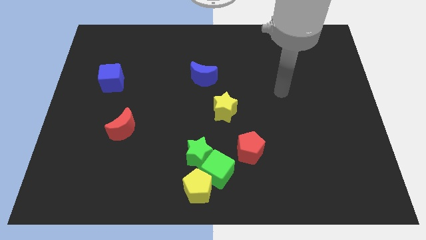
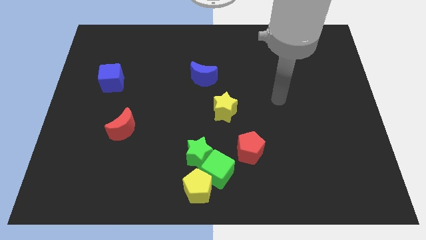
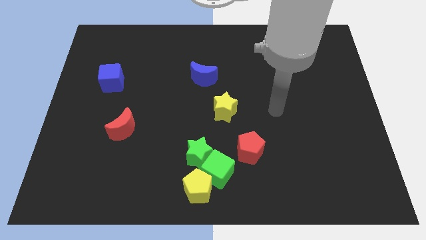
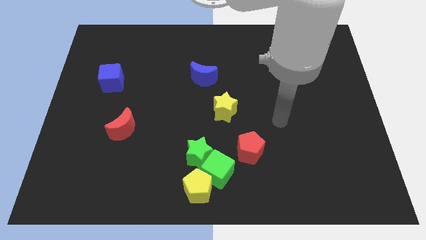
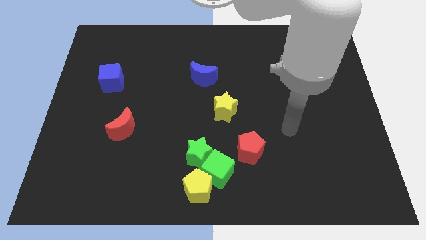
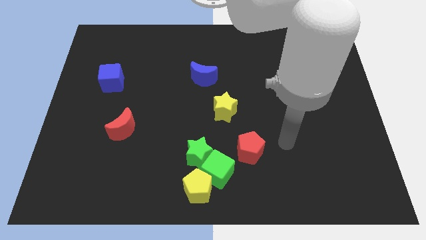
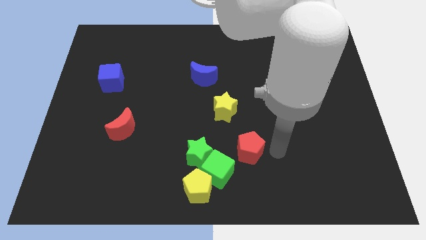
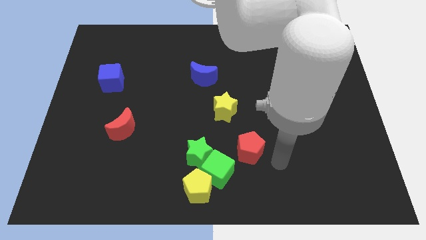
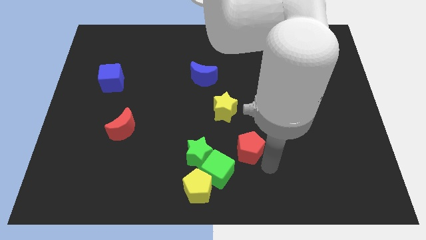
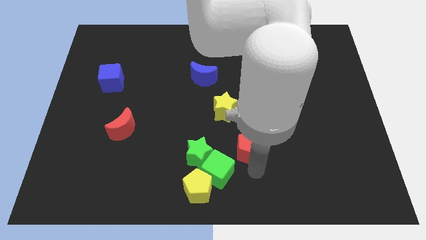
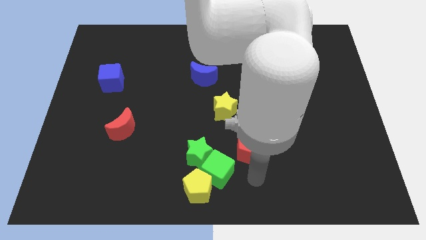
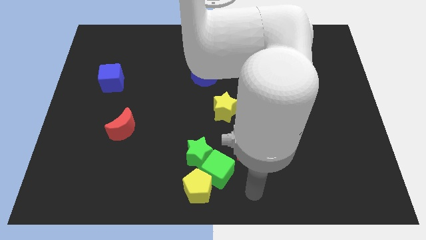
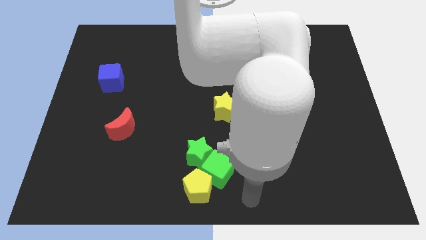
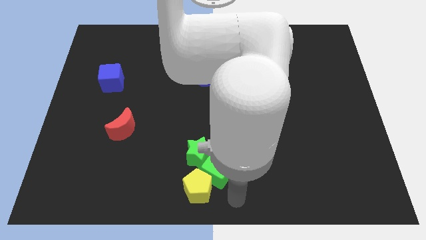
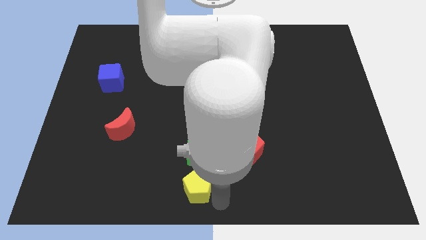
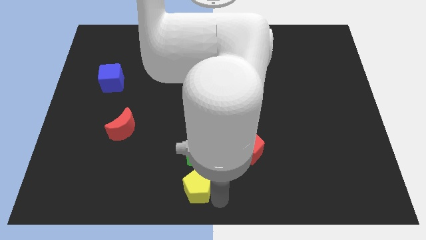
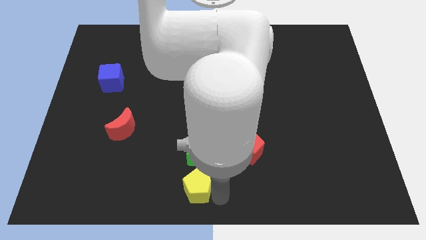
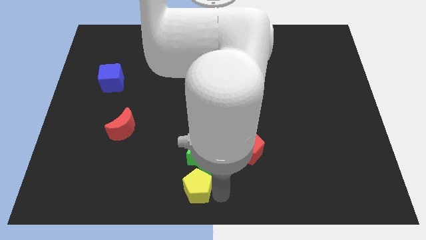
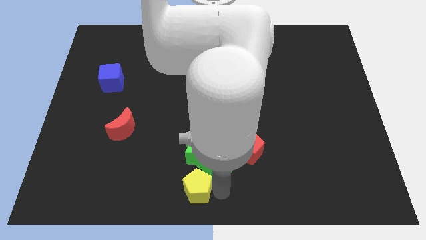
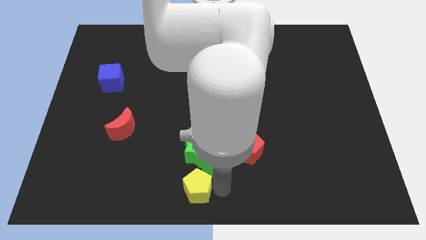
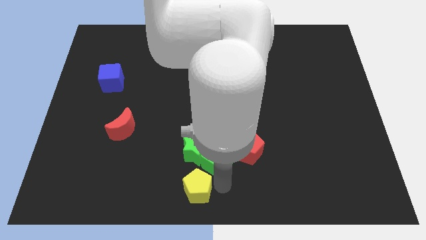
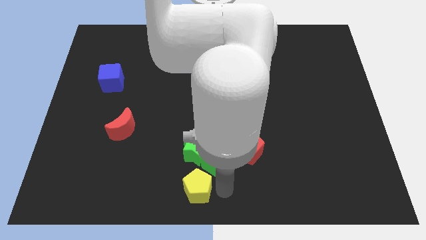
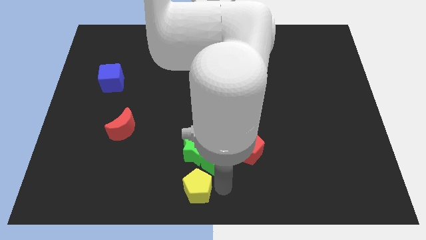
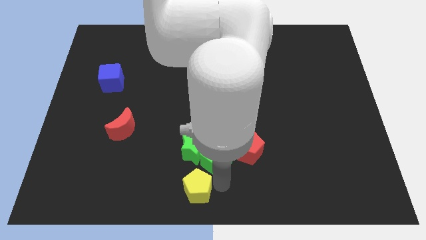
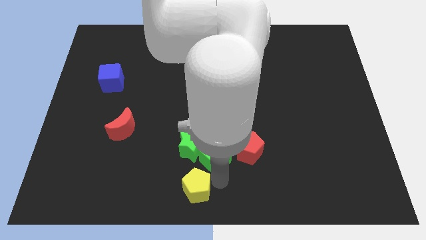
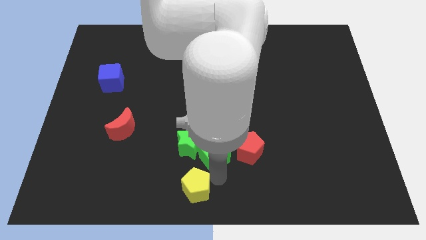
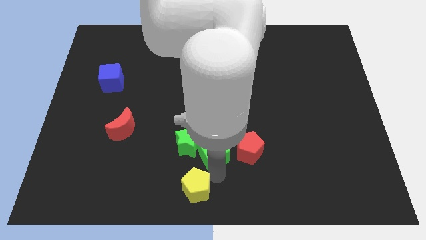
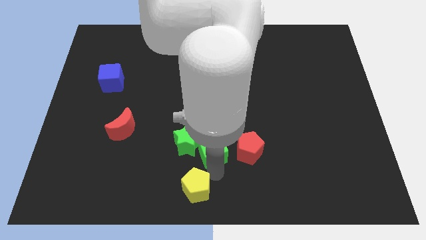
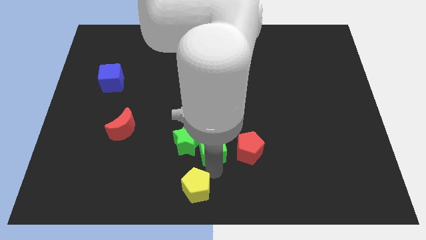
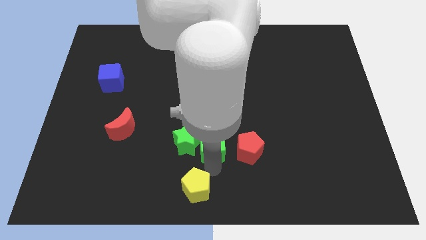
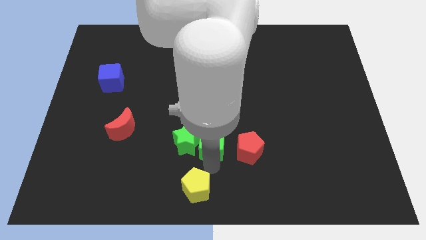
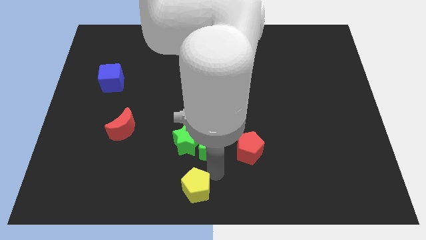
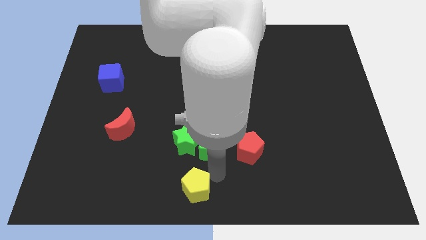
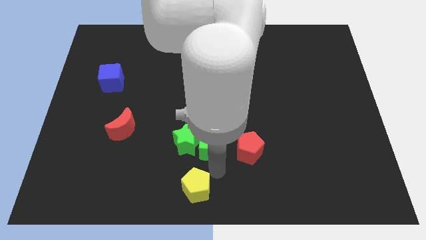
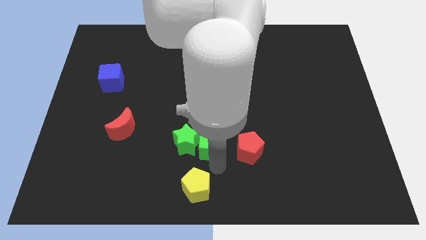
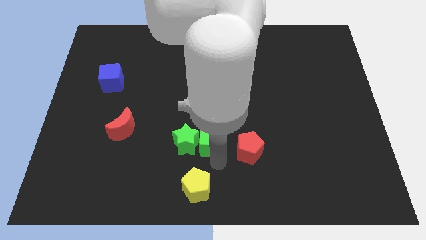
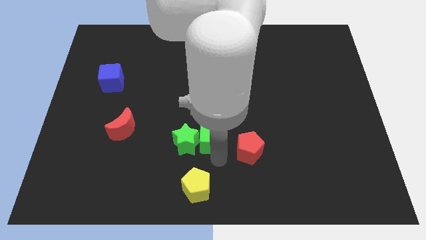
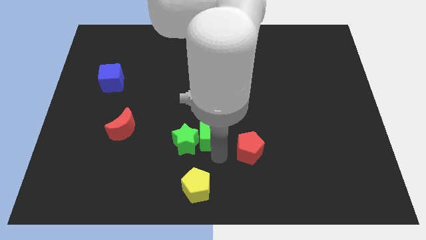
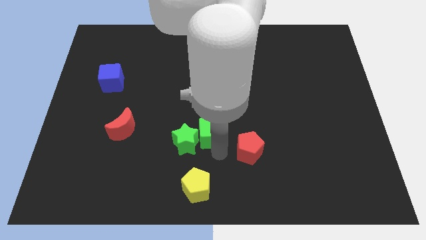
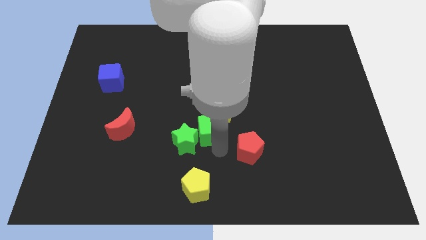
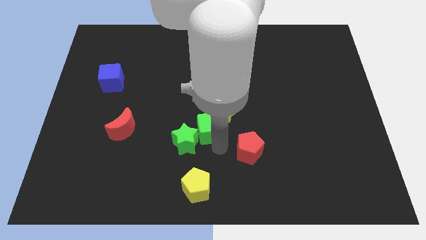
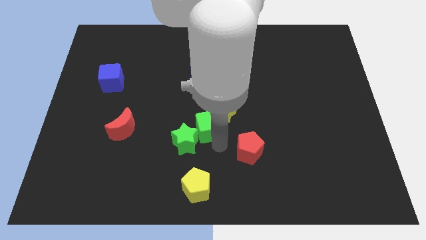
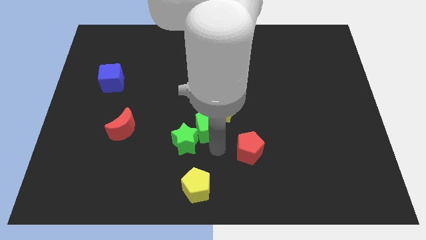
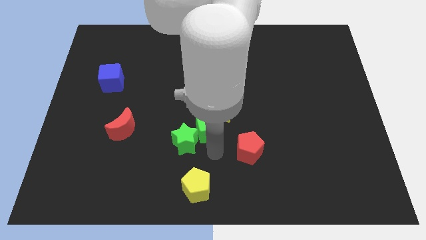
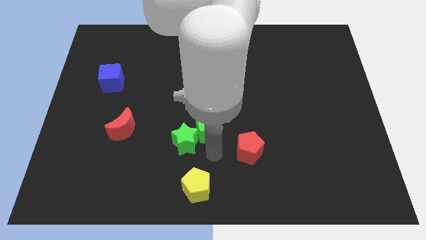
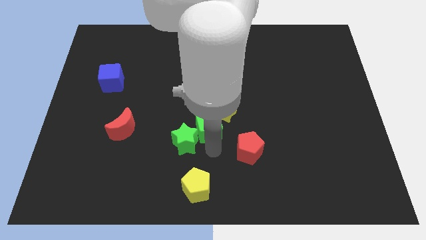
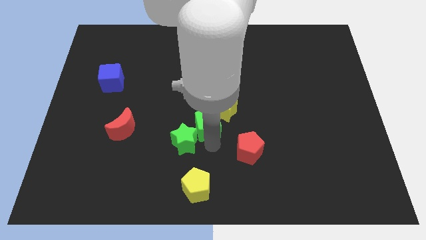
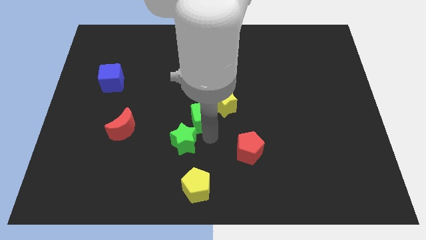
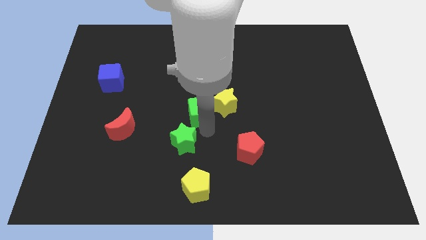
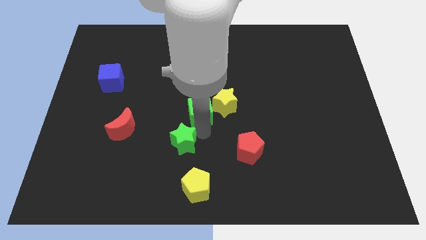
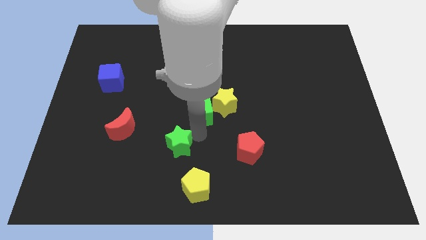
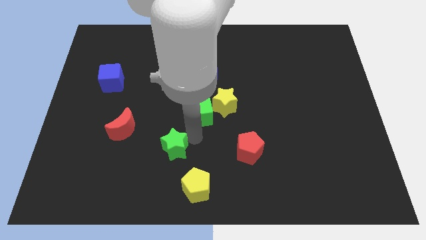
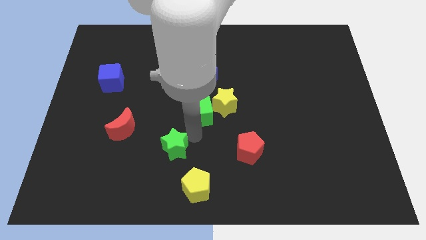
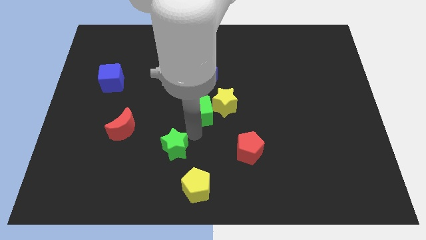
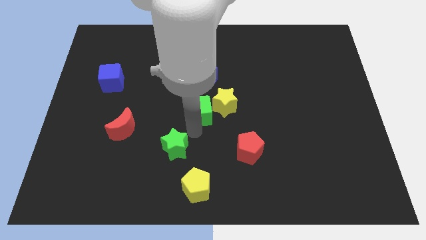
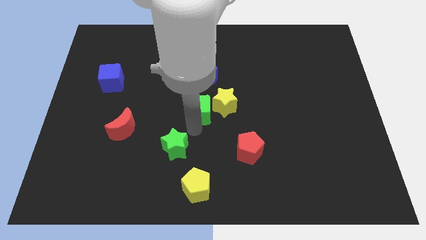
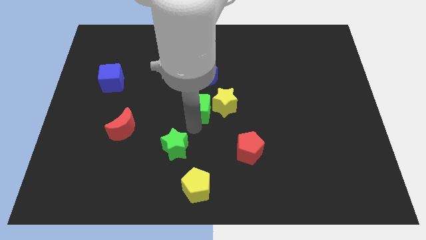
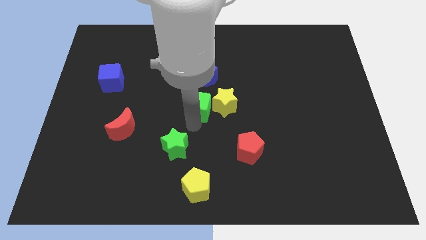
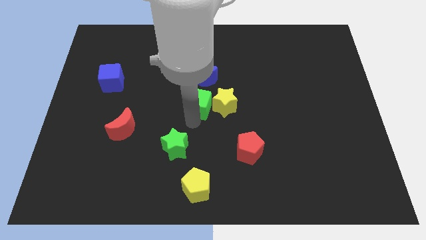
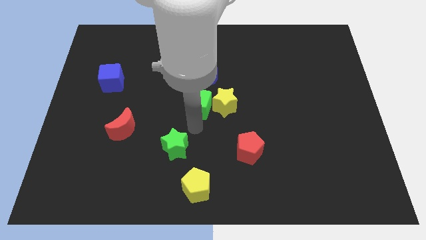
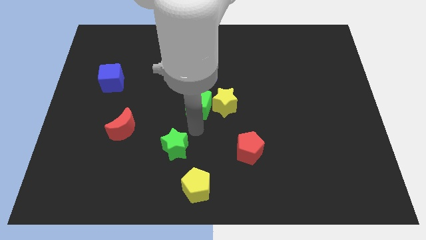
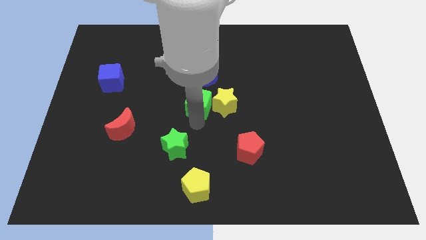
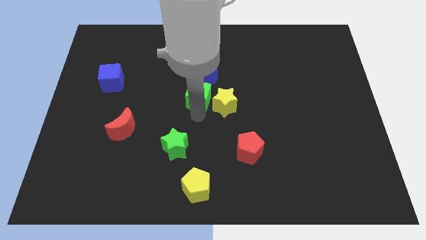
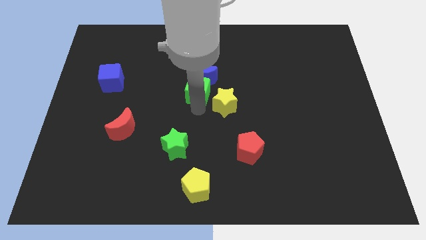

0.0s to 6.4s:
slide the green cube close to the blue moon

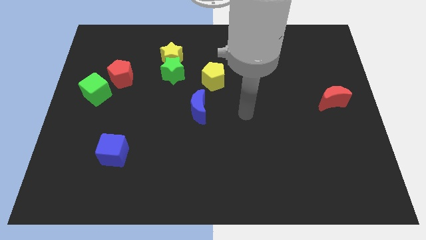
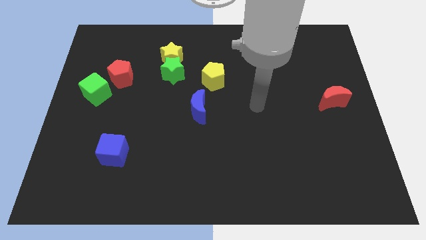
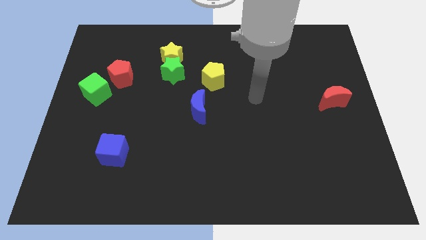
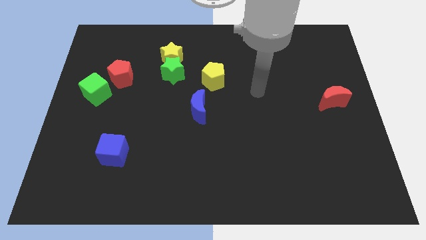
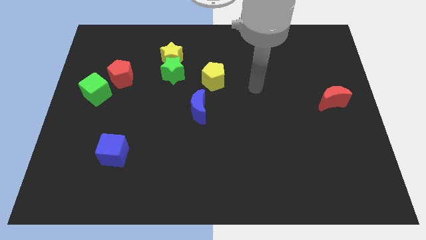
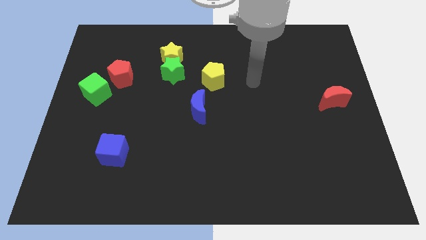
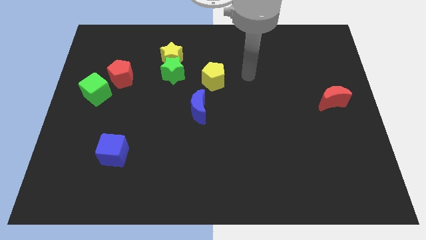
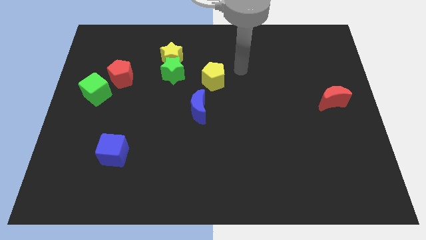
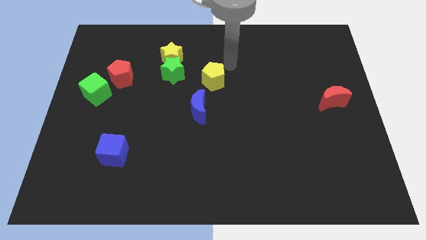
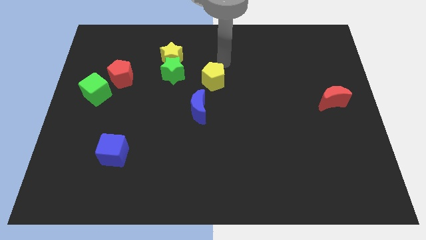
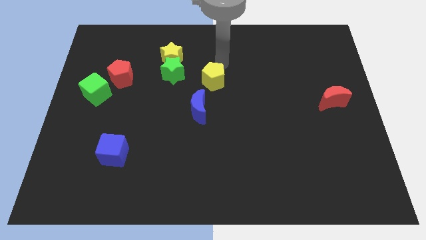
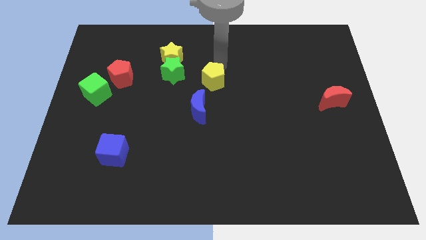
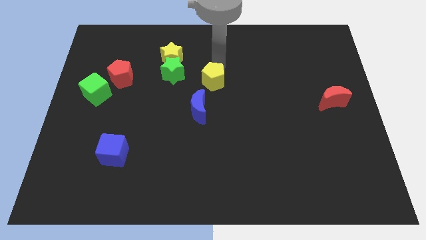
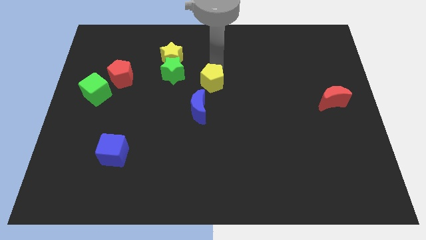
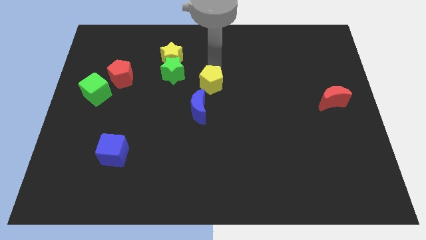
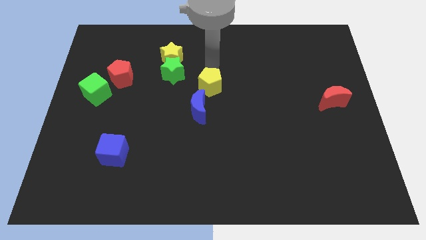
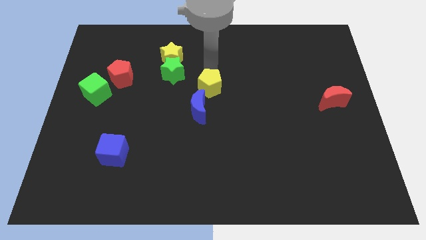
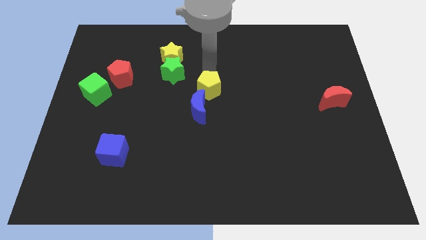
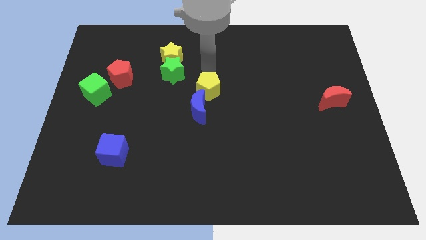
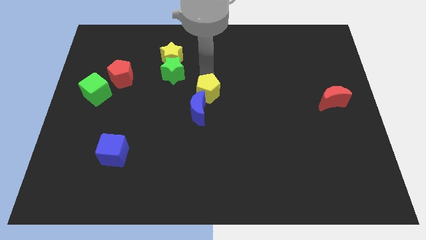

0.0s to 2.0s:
push the yellow pentagon to the blue moon
